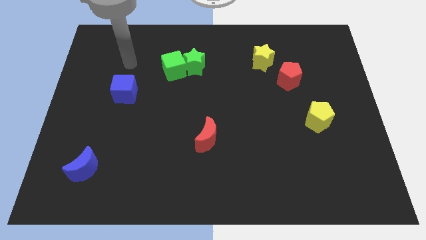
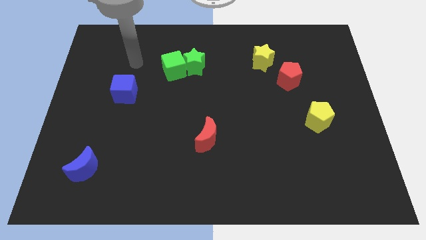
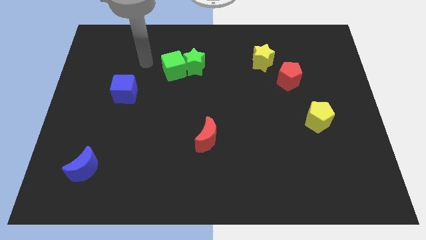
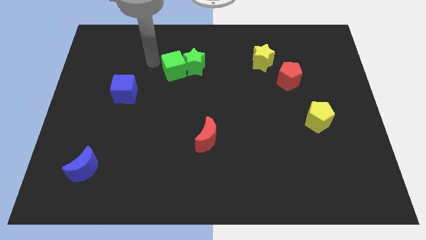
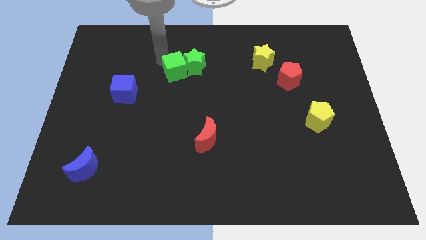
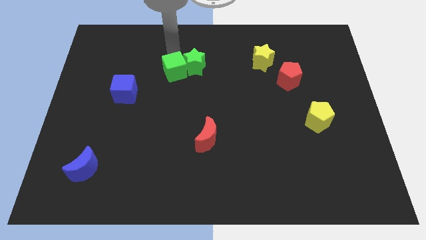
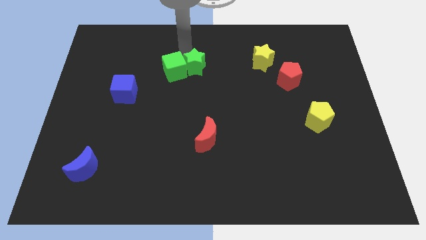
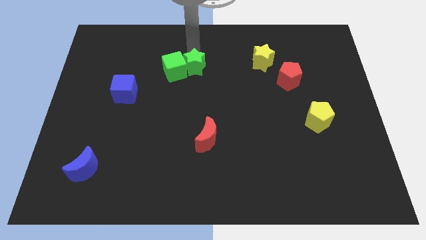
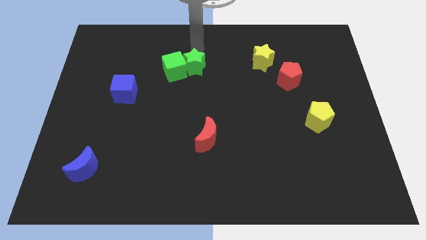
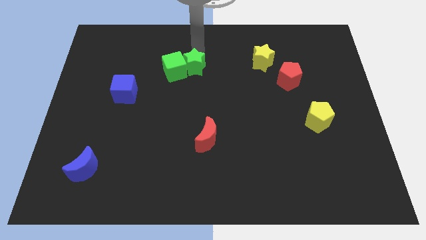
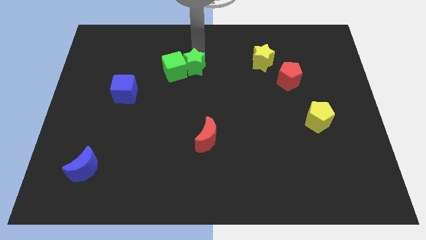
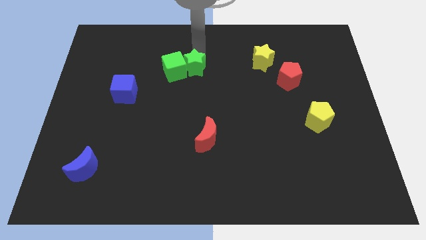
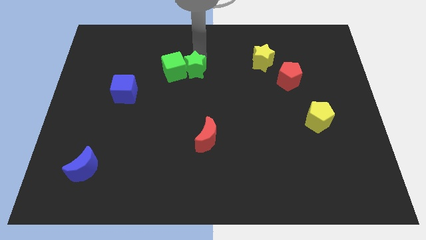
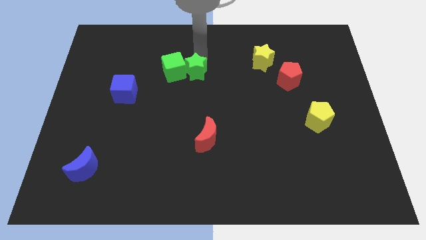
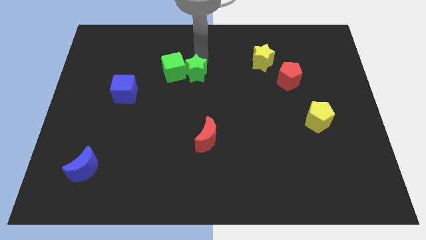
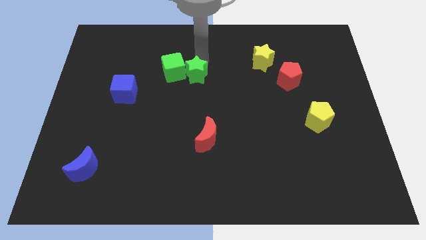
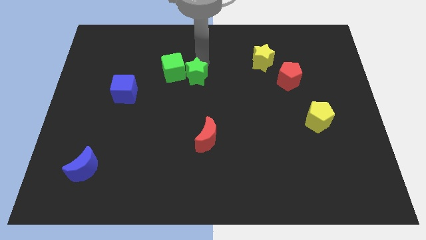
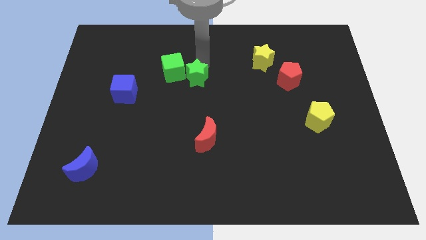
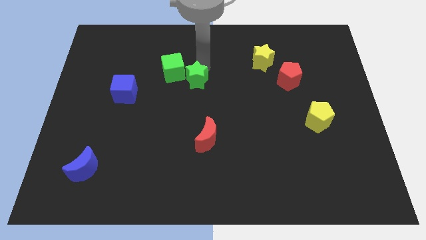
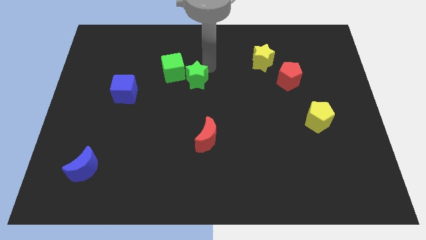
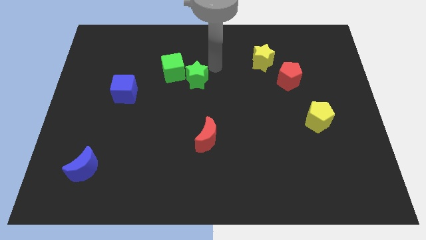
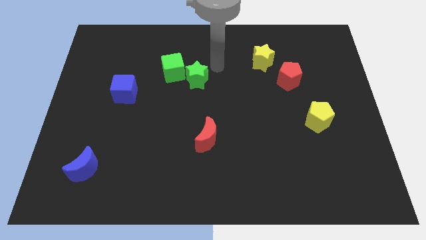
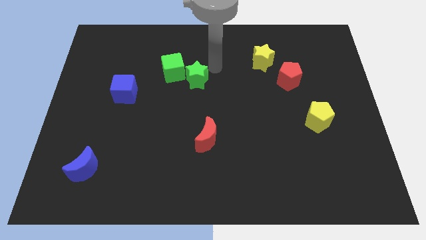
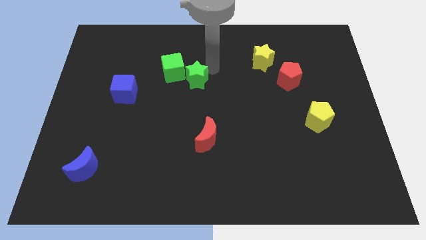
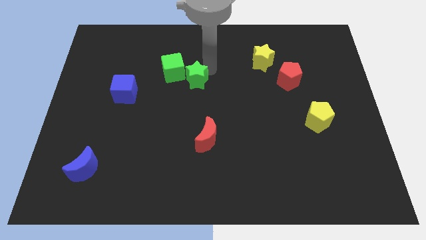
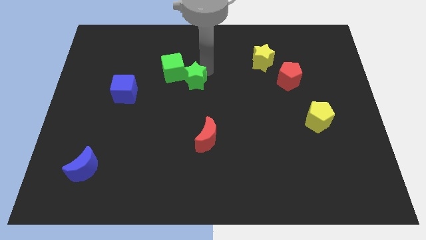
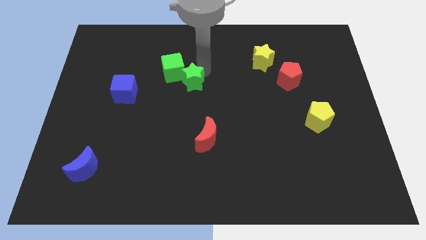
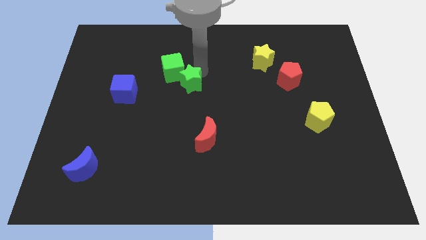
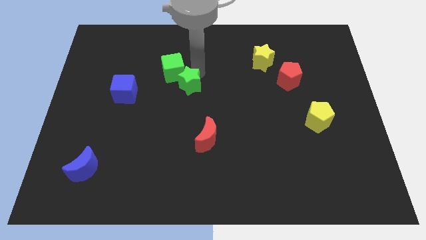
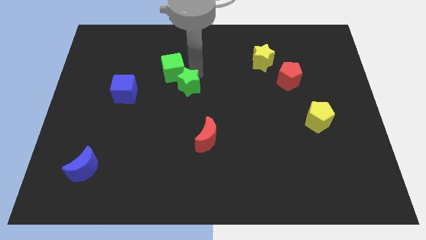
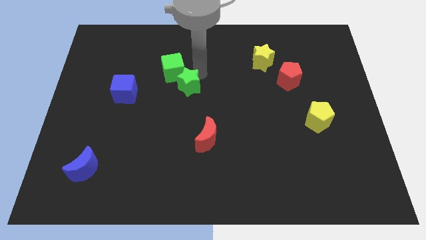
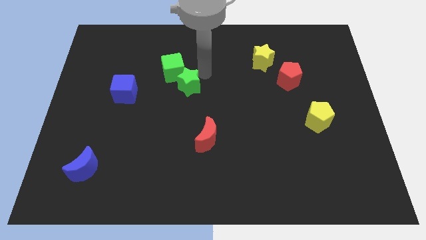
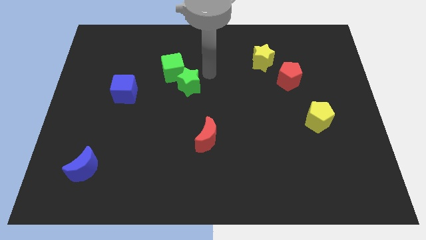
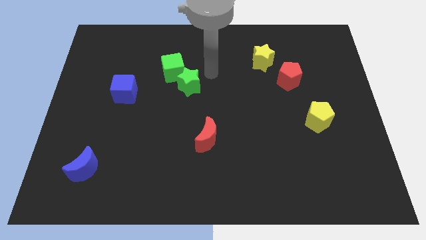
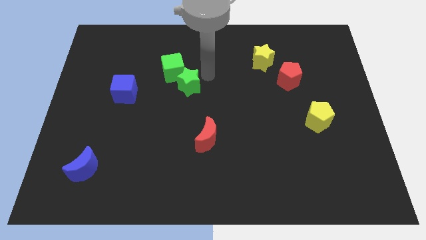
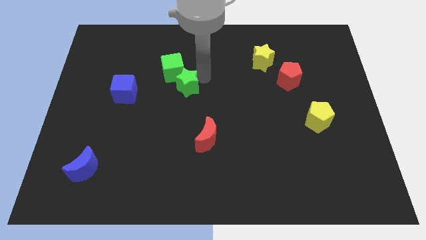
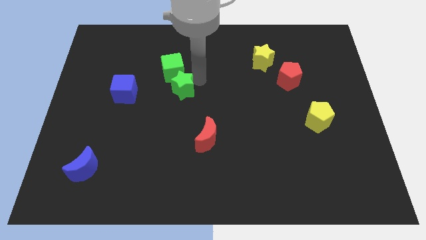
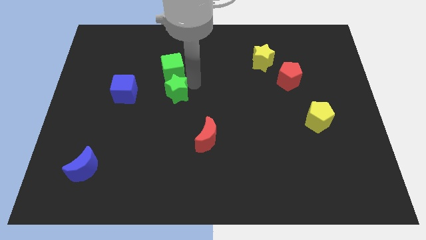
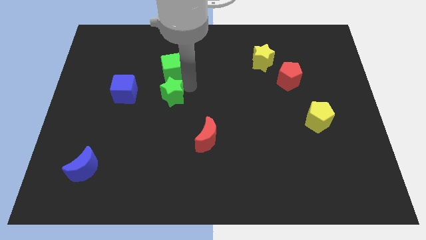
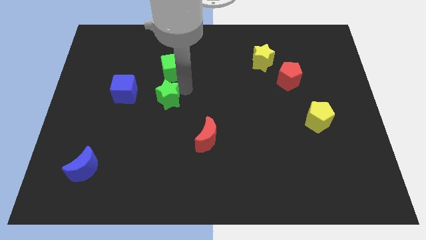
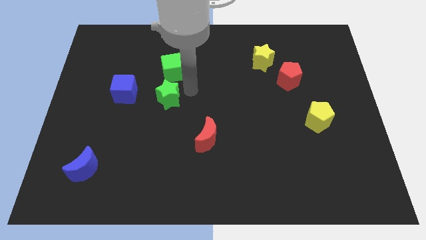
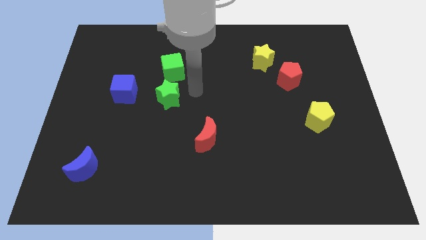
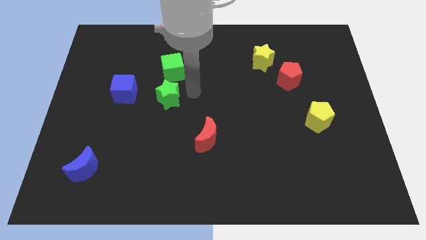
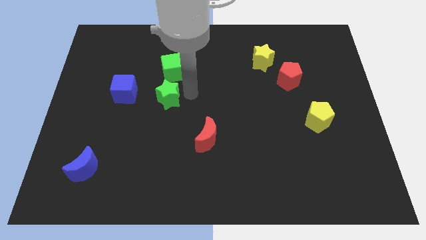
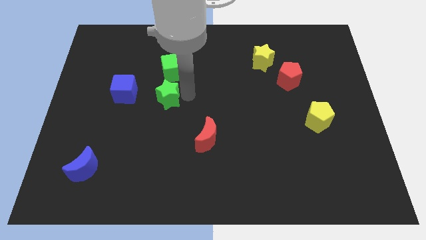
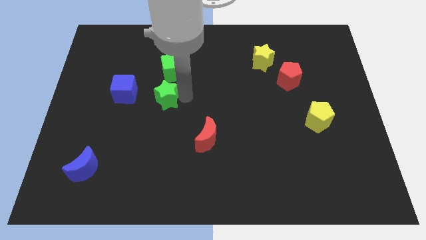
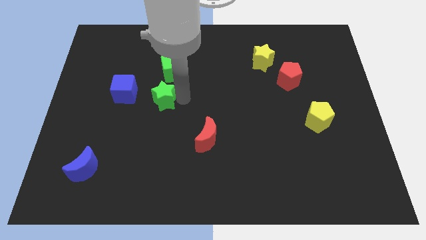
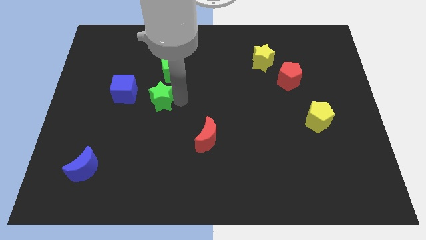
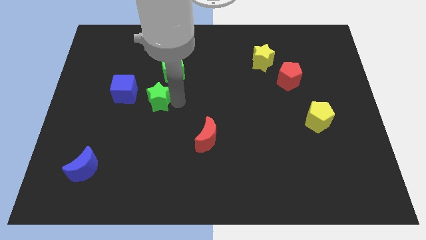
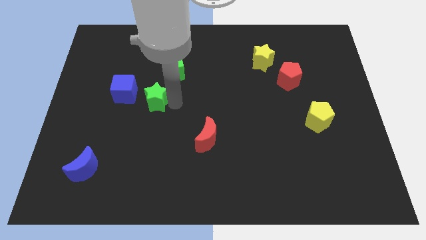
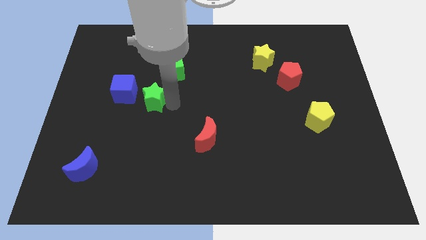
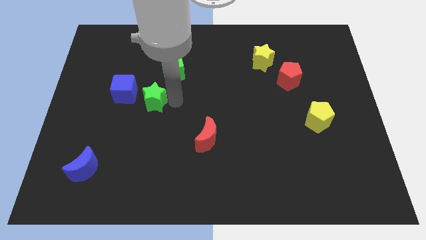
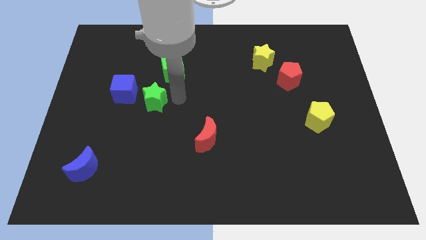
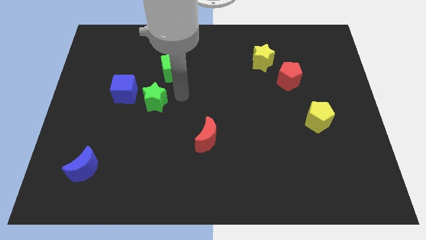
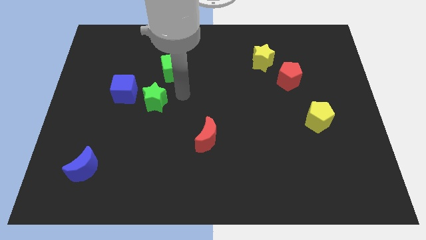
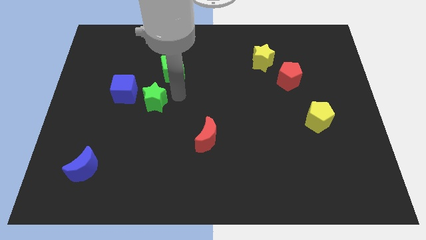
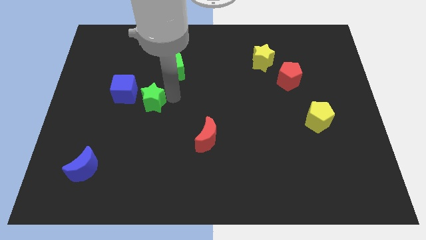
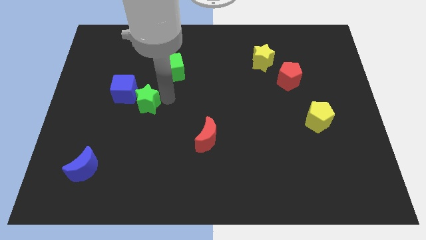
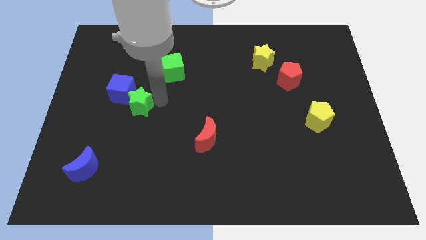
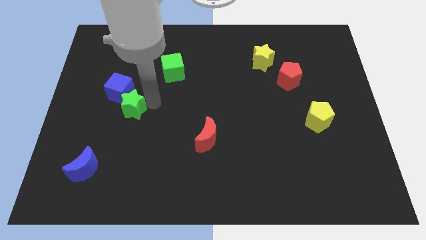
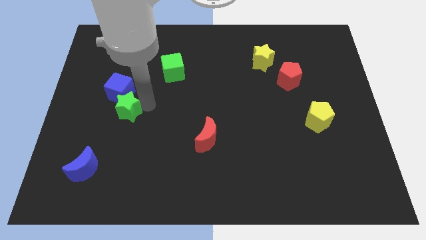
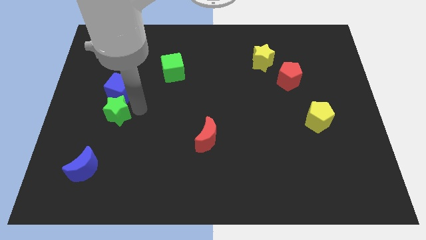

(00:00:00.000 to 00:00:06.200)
put the green star to the bottom left of the blue cube

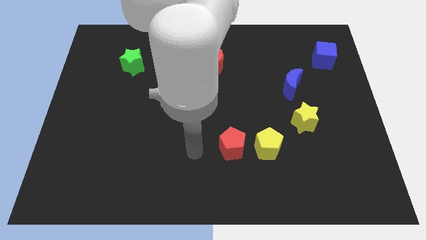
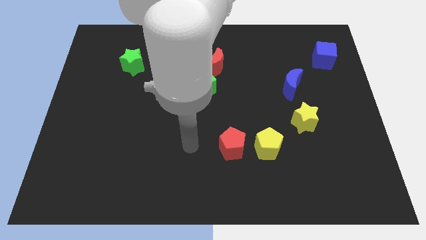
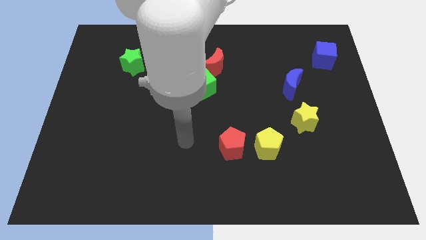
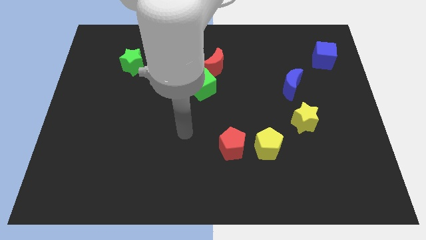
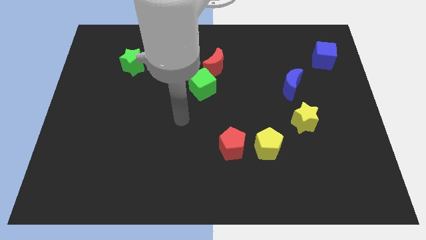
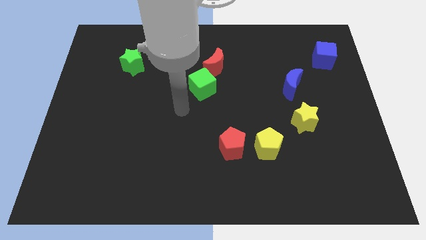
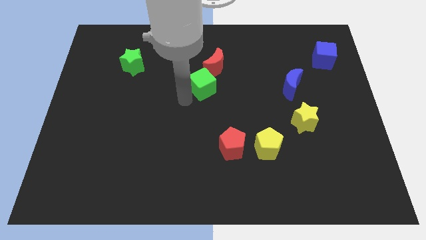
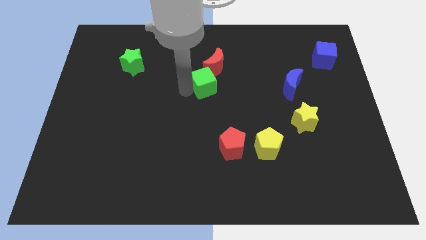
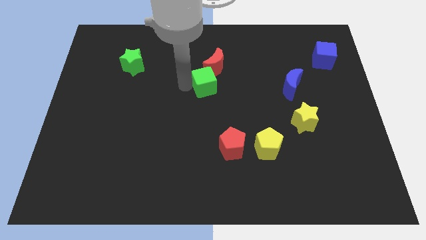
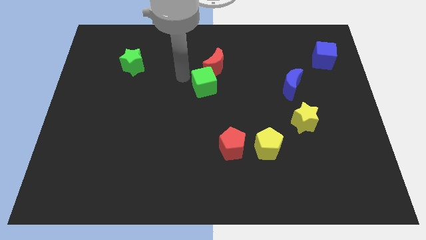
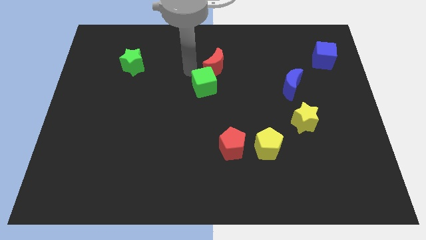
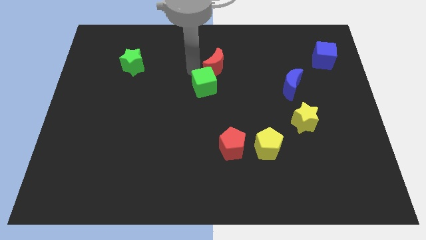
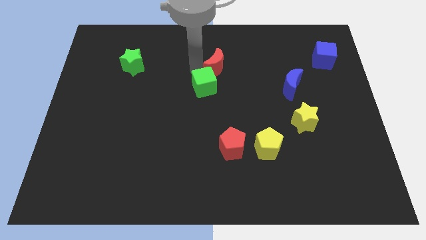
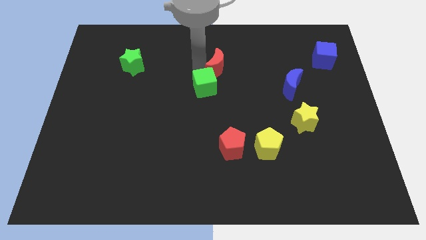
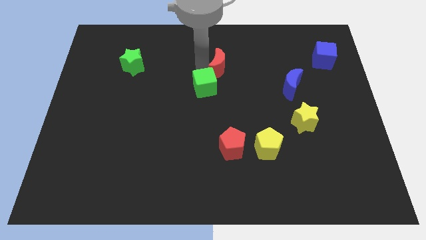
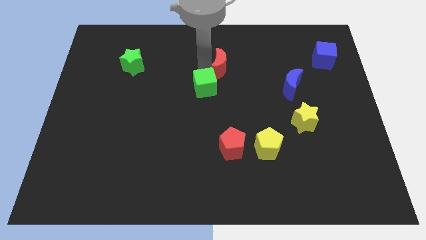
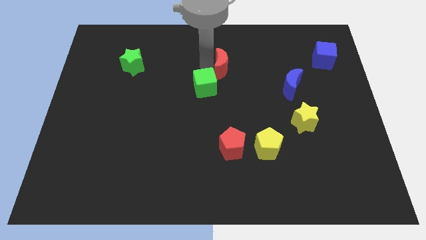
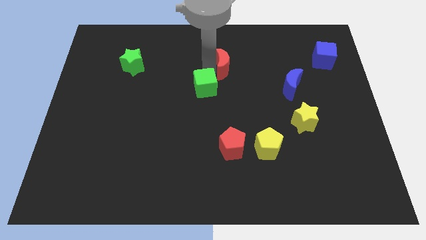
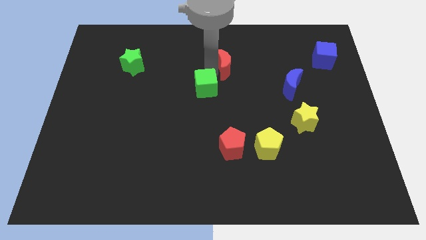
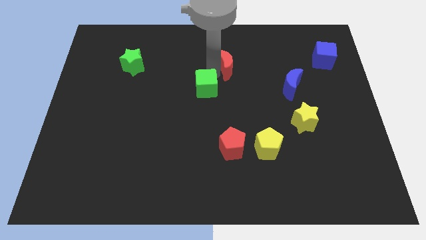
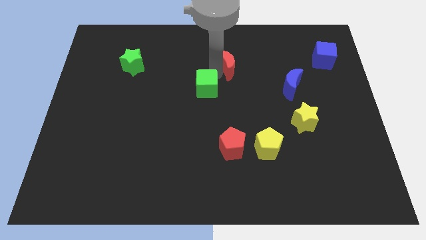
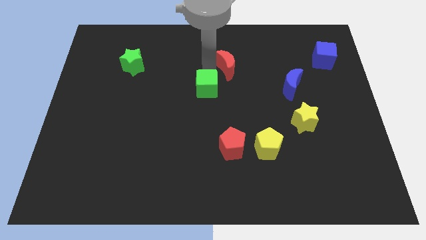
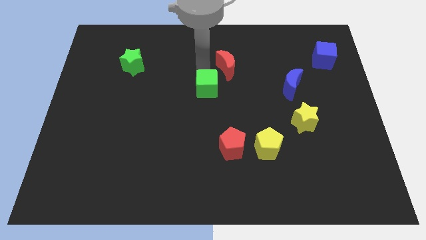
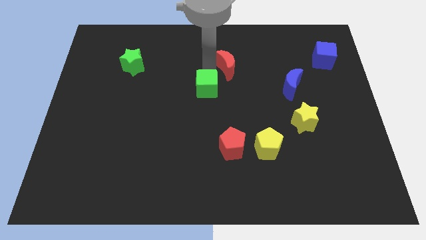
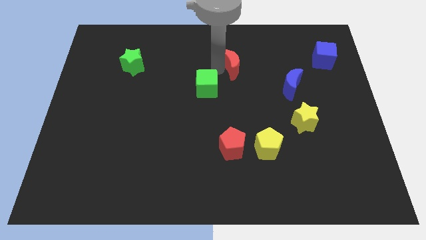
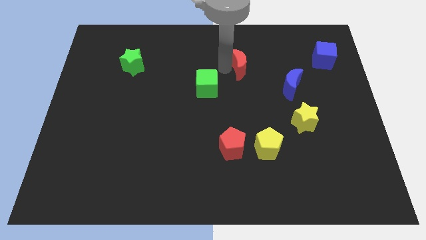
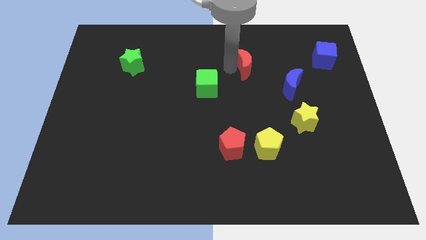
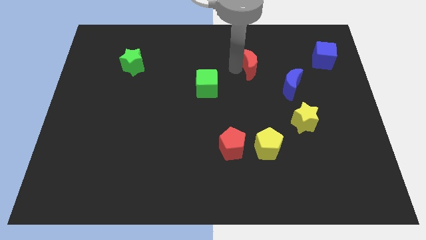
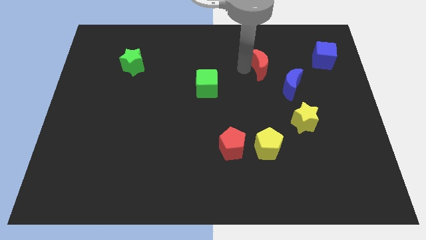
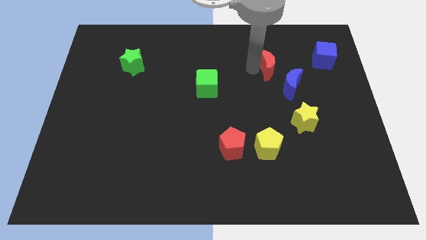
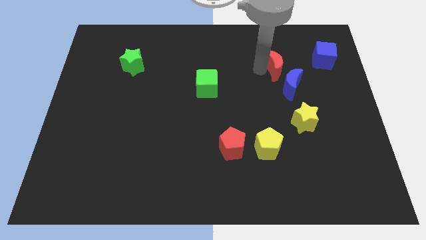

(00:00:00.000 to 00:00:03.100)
put the red moon above the blue moon
